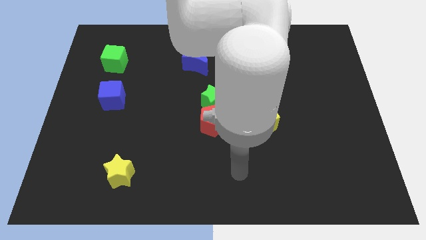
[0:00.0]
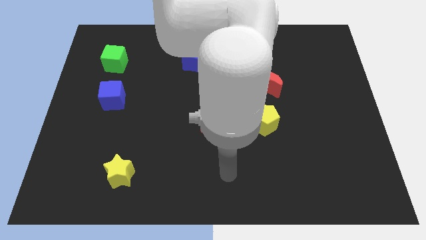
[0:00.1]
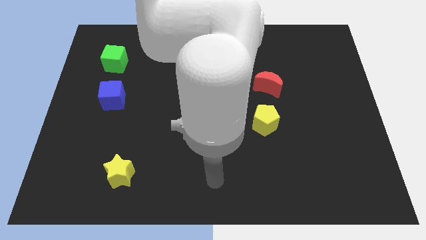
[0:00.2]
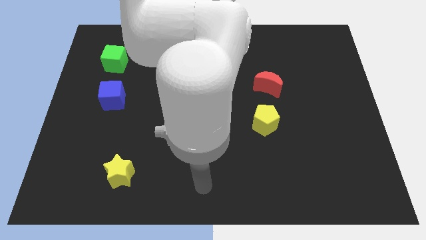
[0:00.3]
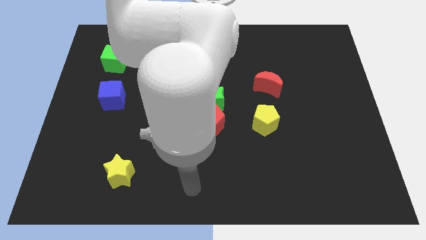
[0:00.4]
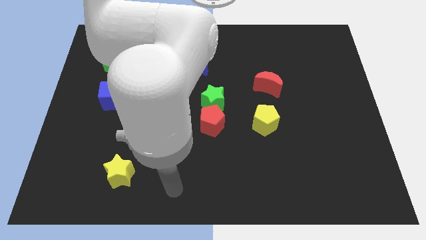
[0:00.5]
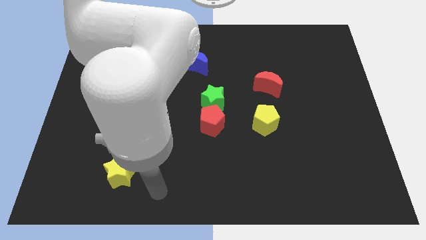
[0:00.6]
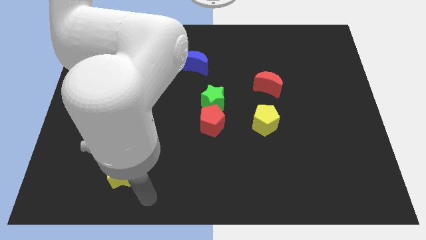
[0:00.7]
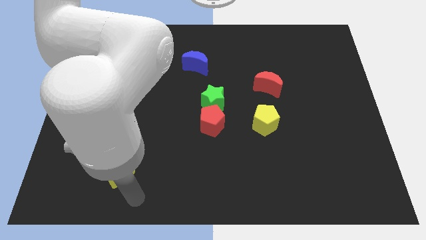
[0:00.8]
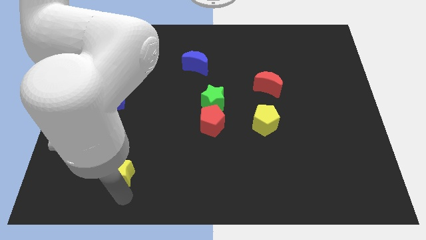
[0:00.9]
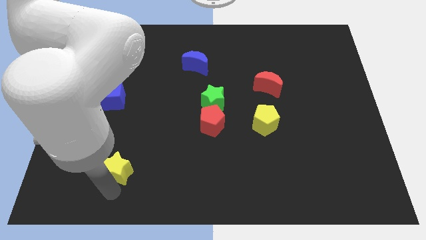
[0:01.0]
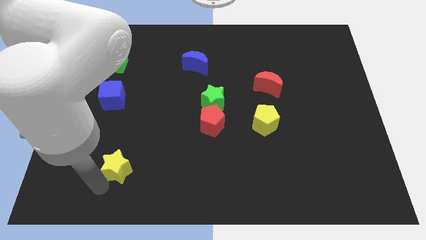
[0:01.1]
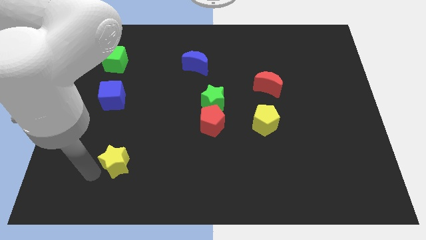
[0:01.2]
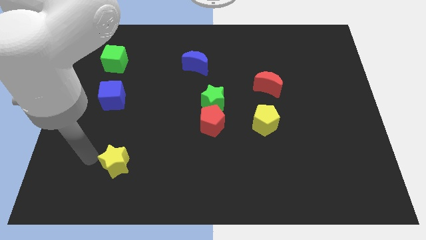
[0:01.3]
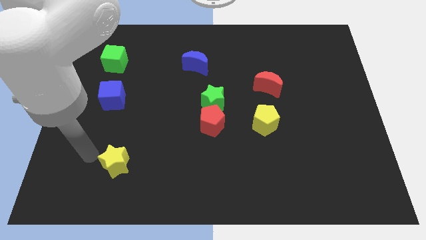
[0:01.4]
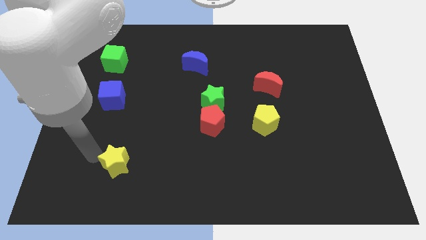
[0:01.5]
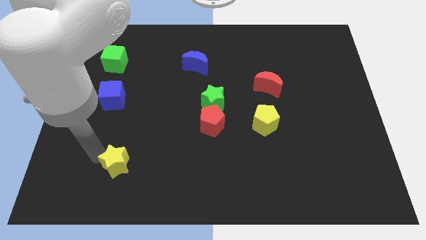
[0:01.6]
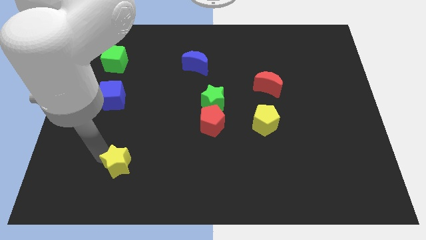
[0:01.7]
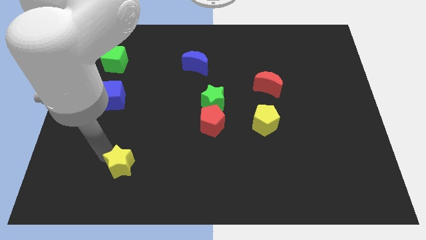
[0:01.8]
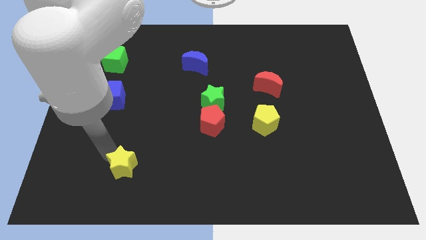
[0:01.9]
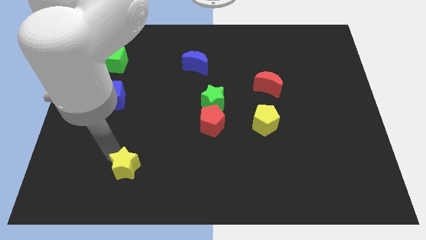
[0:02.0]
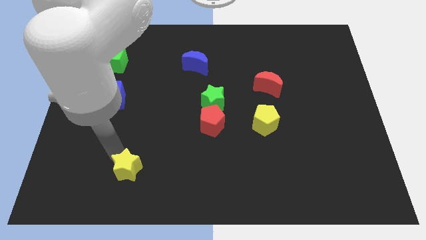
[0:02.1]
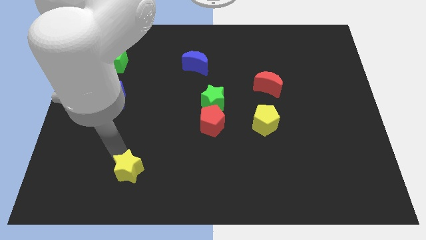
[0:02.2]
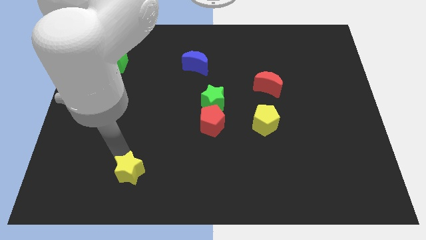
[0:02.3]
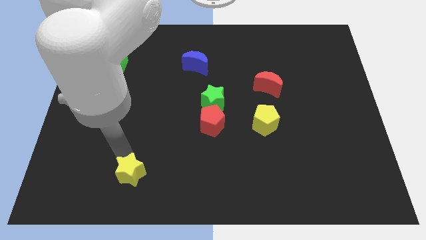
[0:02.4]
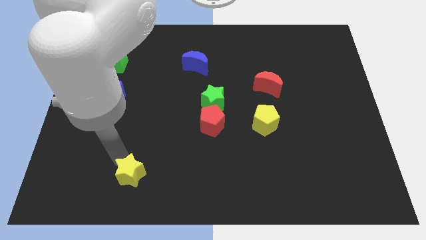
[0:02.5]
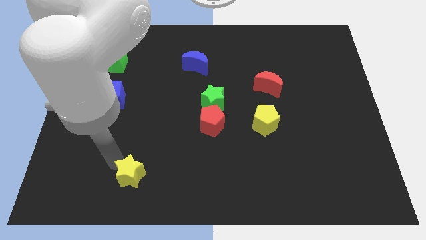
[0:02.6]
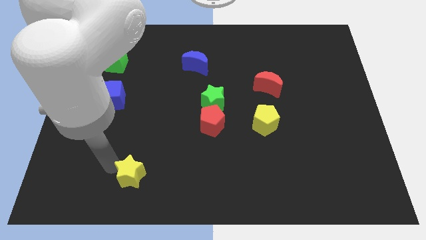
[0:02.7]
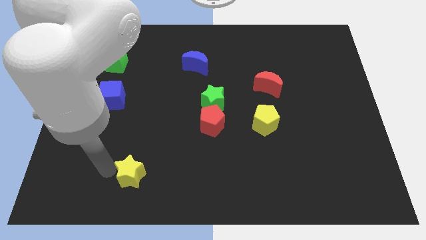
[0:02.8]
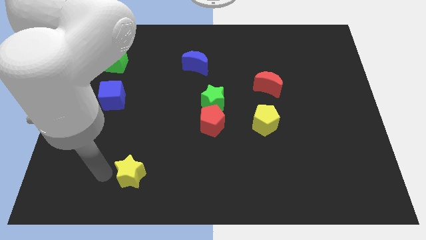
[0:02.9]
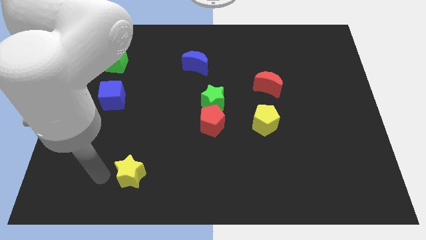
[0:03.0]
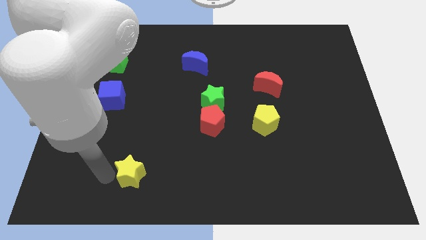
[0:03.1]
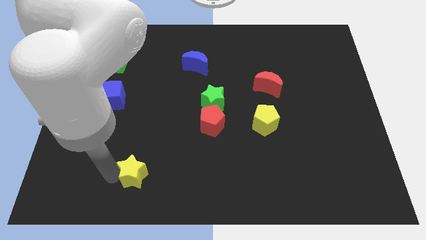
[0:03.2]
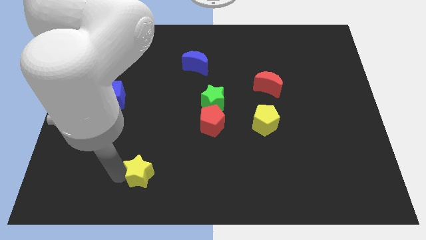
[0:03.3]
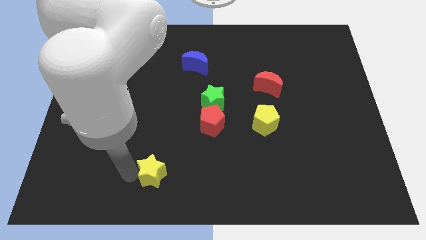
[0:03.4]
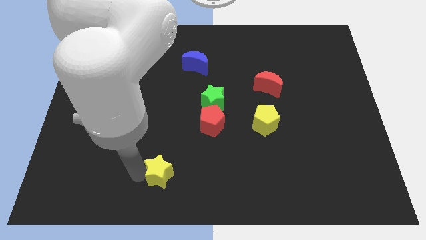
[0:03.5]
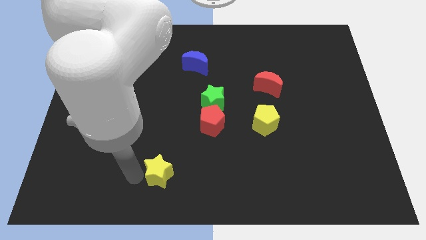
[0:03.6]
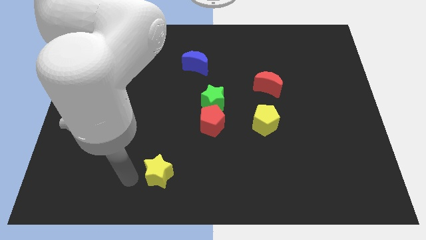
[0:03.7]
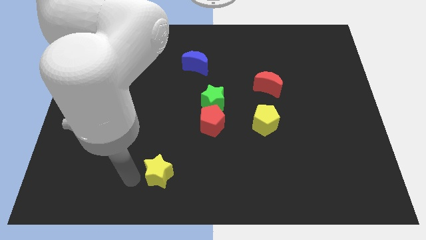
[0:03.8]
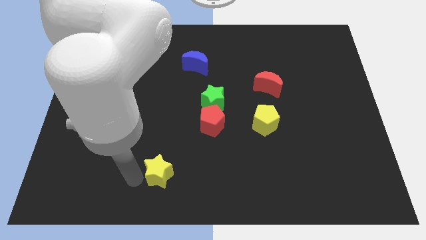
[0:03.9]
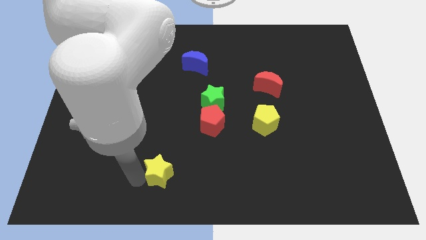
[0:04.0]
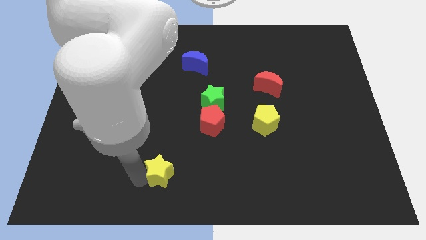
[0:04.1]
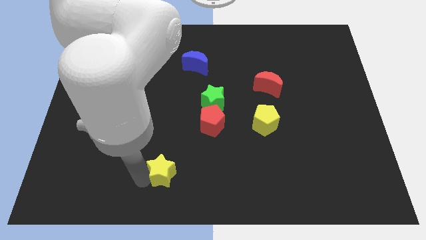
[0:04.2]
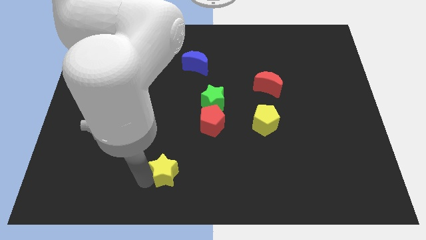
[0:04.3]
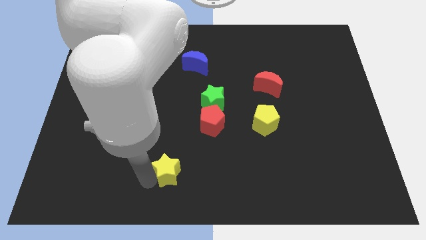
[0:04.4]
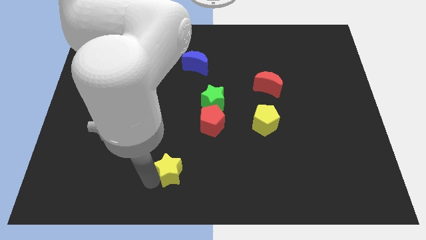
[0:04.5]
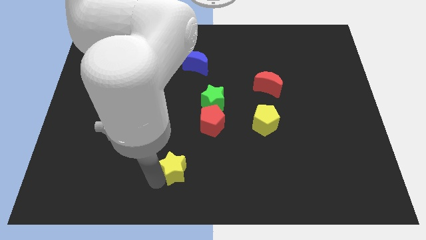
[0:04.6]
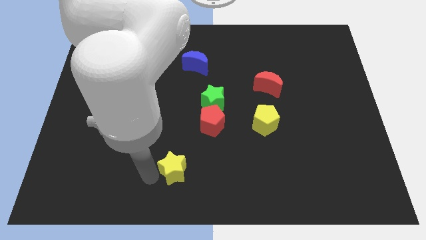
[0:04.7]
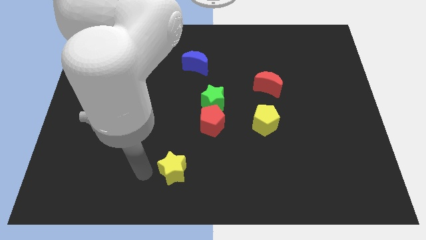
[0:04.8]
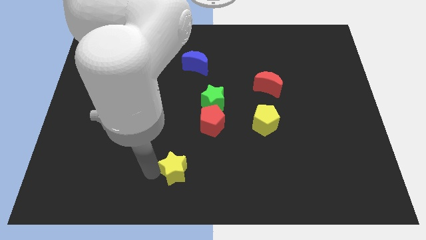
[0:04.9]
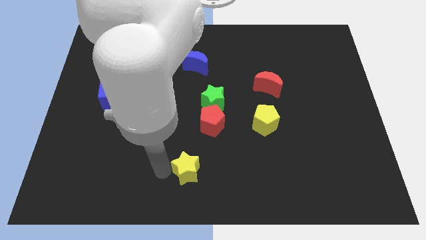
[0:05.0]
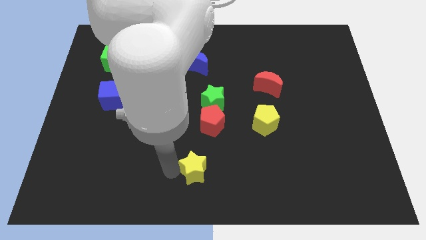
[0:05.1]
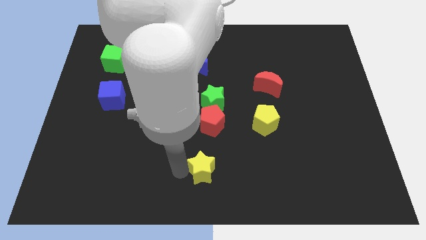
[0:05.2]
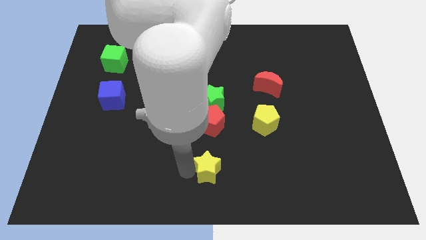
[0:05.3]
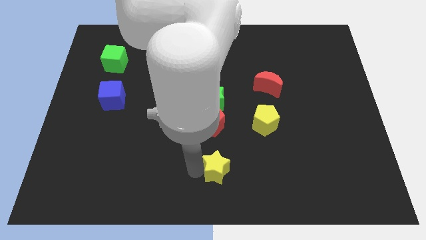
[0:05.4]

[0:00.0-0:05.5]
move the yellow star right

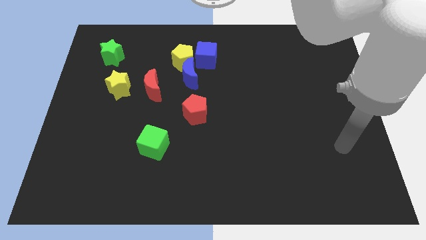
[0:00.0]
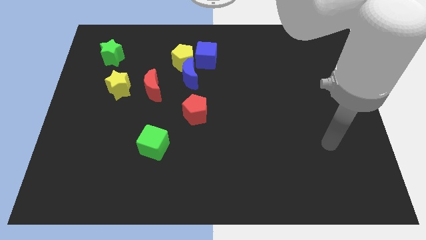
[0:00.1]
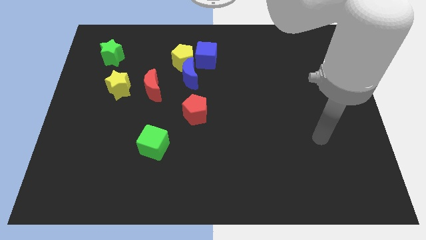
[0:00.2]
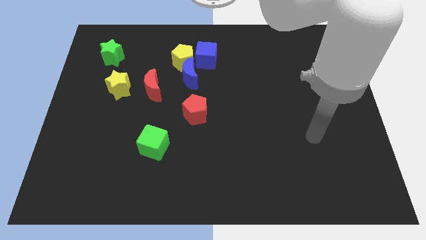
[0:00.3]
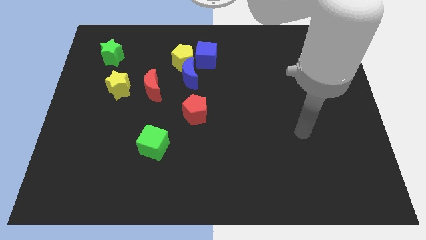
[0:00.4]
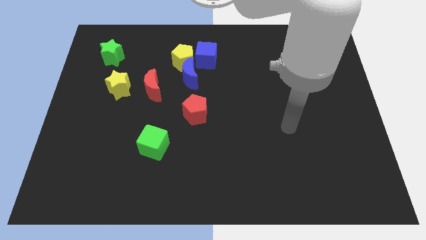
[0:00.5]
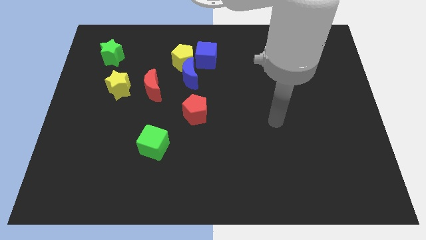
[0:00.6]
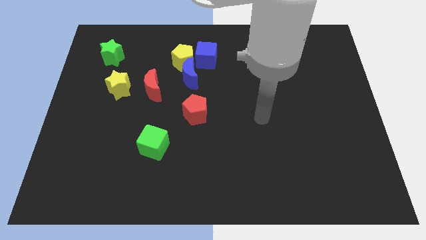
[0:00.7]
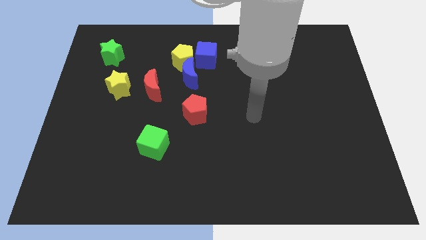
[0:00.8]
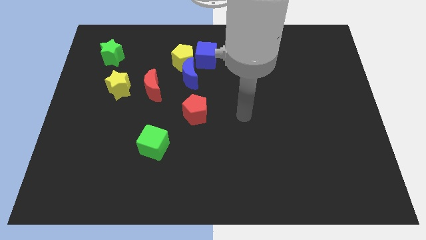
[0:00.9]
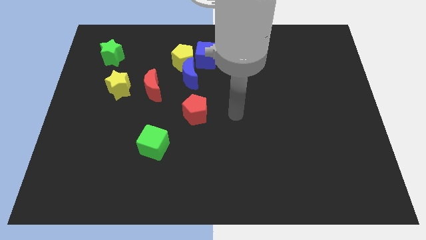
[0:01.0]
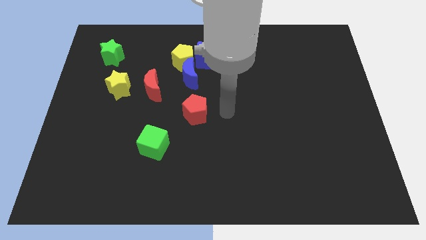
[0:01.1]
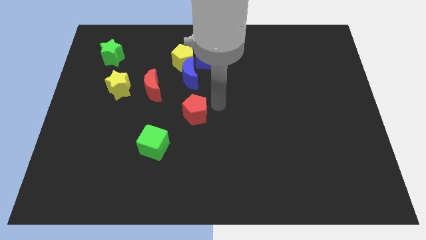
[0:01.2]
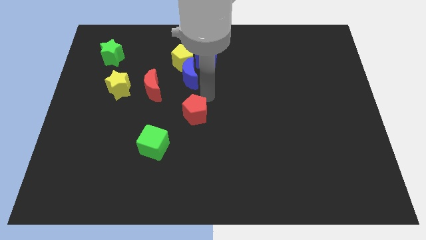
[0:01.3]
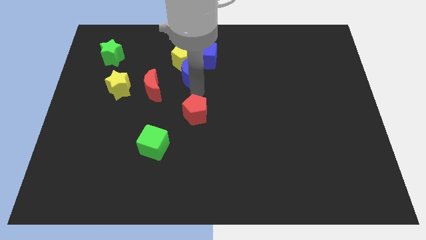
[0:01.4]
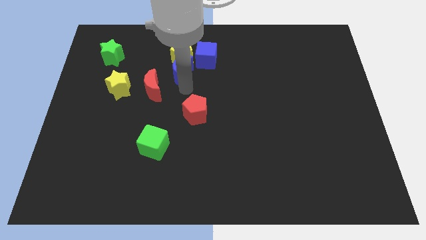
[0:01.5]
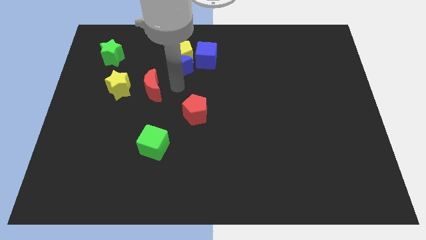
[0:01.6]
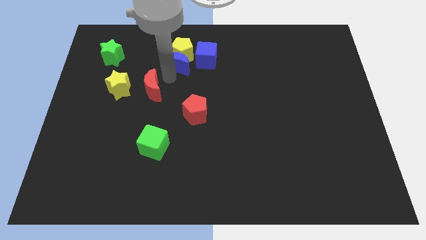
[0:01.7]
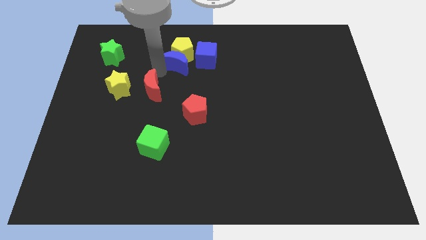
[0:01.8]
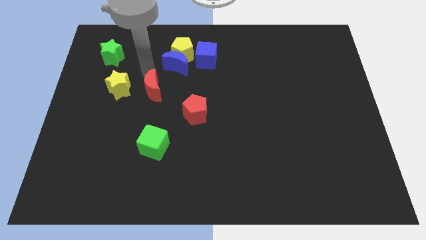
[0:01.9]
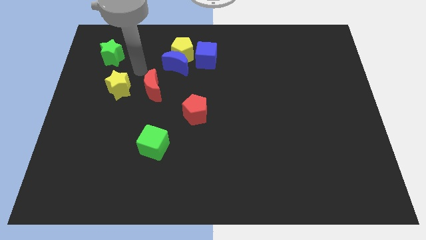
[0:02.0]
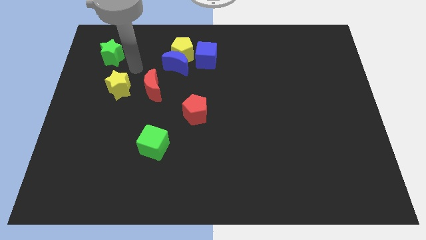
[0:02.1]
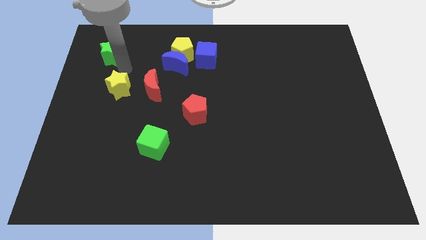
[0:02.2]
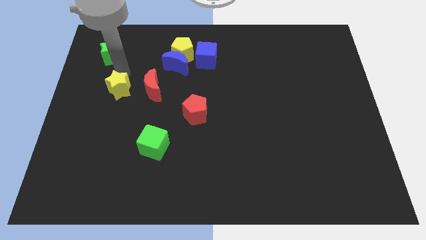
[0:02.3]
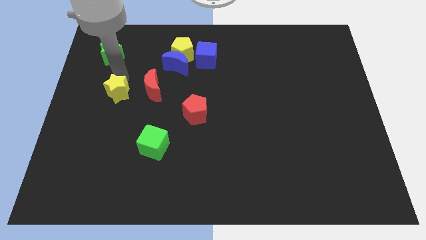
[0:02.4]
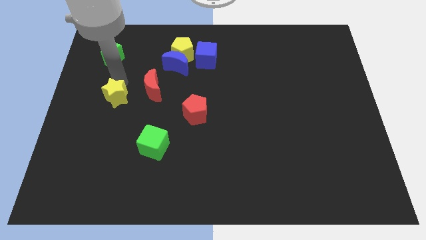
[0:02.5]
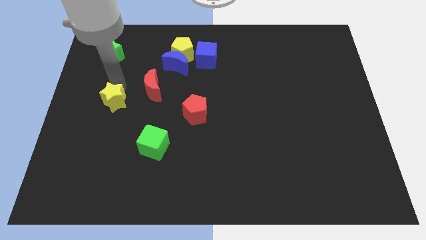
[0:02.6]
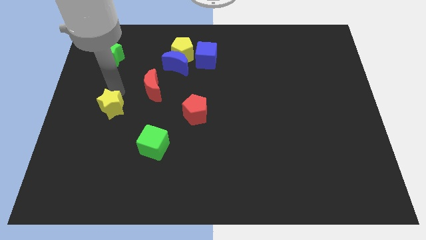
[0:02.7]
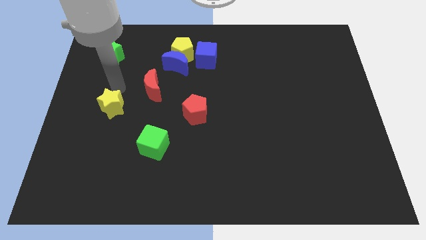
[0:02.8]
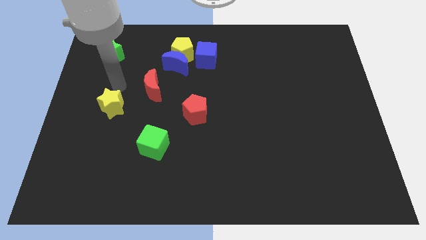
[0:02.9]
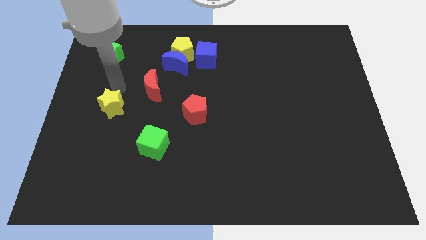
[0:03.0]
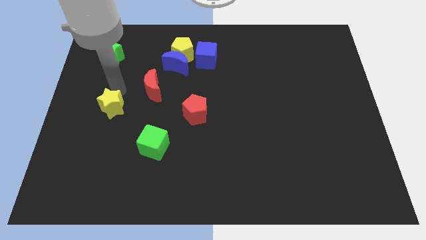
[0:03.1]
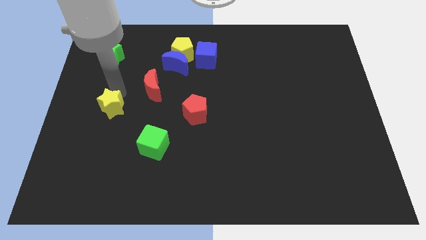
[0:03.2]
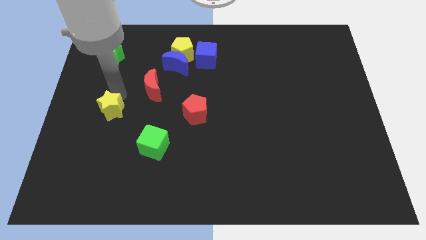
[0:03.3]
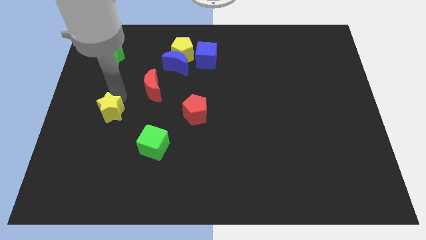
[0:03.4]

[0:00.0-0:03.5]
push the yellow star a little bit downwards
